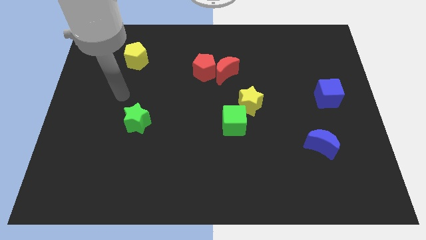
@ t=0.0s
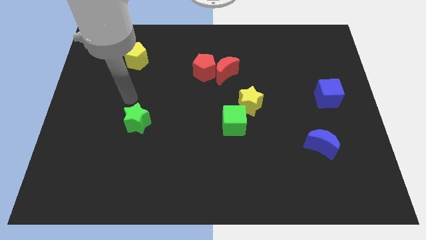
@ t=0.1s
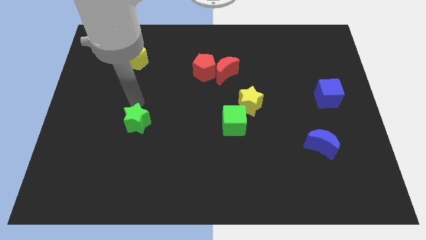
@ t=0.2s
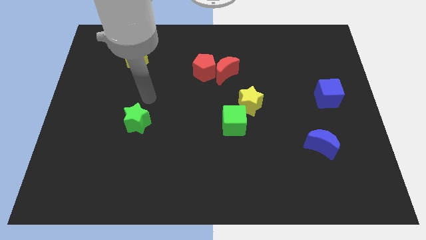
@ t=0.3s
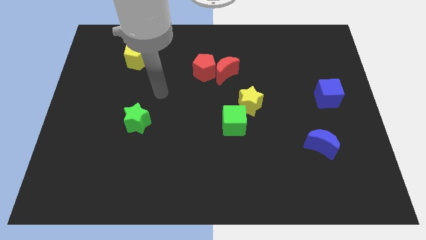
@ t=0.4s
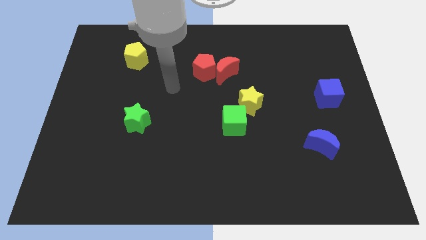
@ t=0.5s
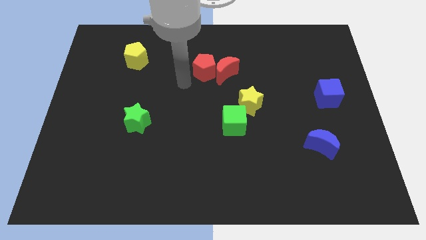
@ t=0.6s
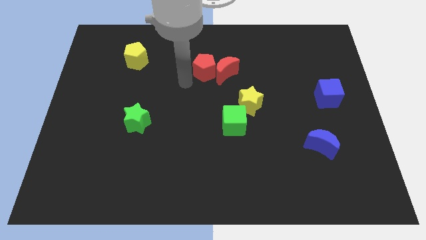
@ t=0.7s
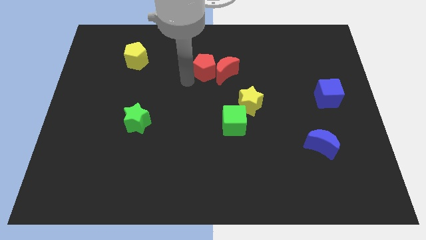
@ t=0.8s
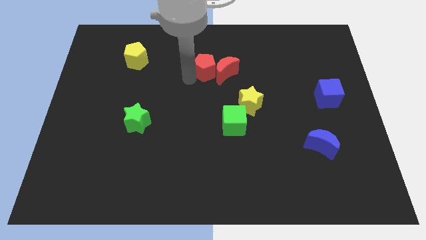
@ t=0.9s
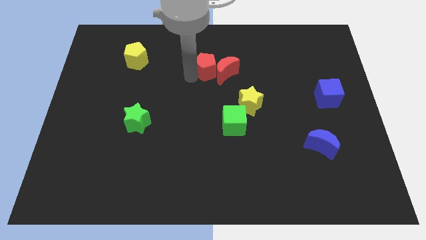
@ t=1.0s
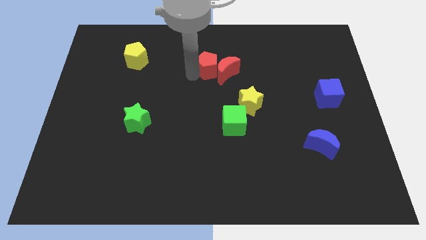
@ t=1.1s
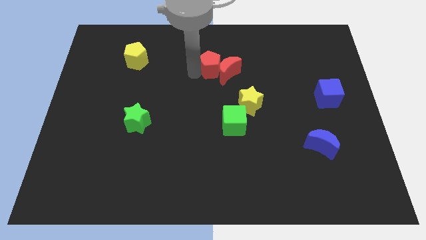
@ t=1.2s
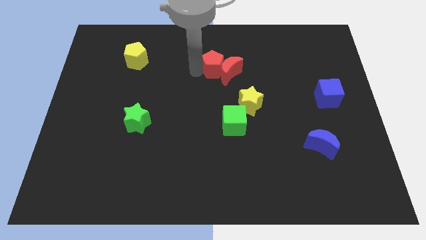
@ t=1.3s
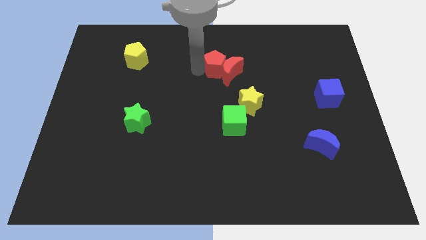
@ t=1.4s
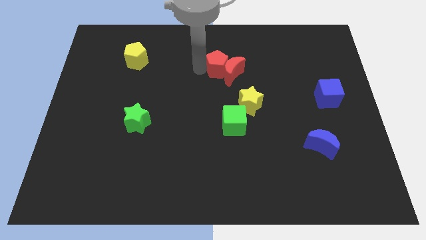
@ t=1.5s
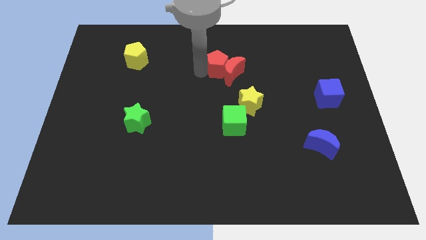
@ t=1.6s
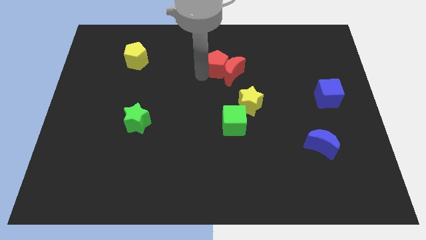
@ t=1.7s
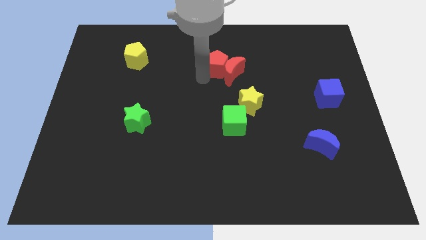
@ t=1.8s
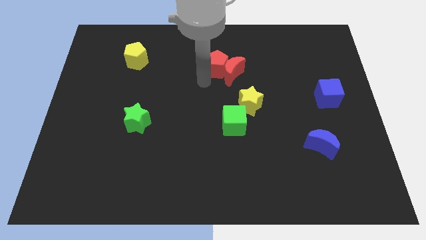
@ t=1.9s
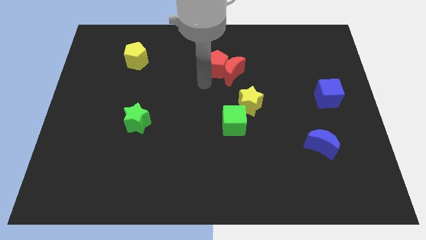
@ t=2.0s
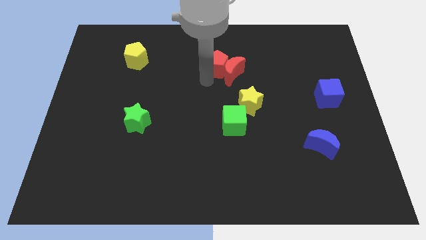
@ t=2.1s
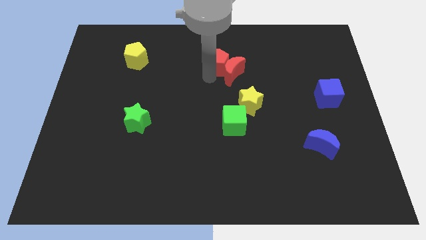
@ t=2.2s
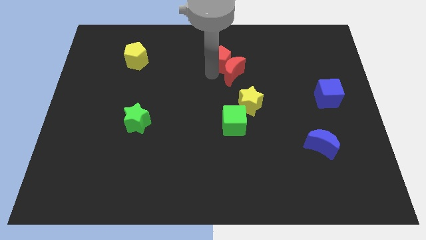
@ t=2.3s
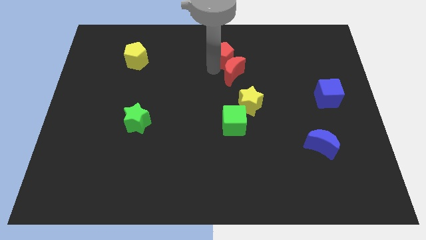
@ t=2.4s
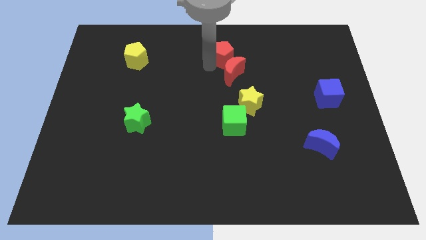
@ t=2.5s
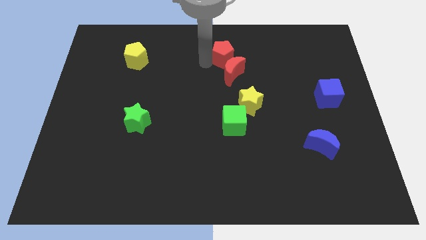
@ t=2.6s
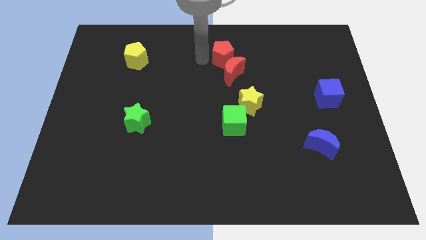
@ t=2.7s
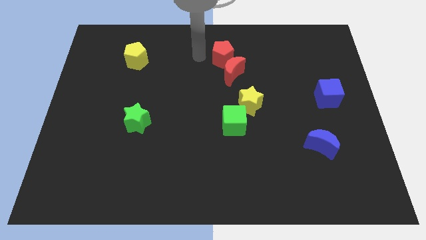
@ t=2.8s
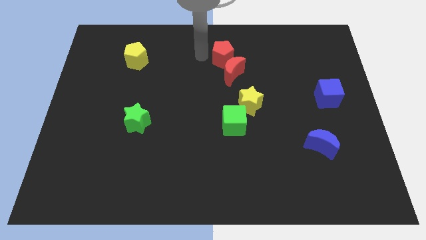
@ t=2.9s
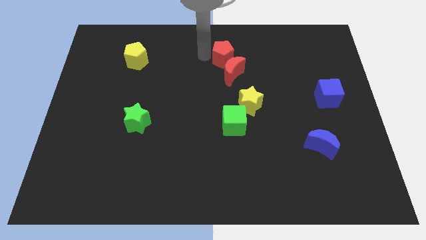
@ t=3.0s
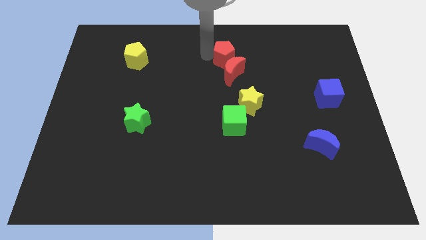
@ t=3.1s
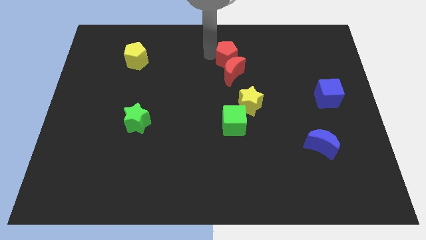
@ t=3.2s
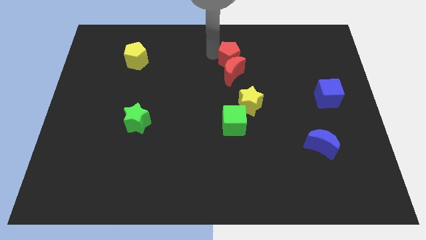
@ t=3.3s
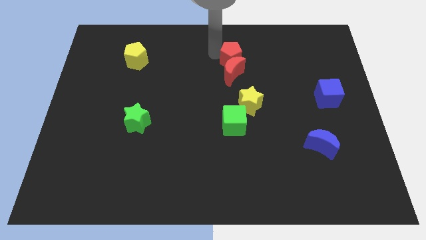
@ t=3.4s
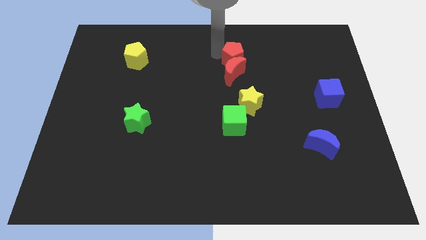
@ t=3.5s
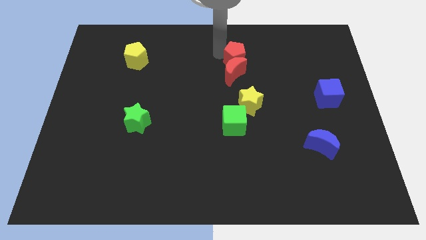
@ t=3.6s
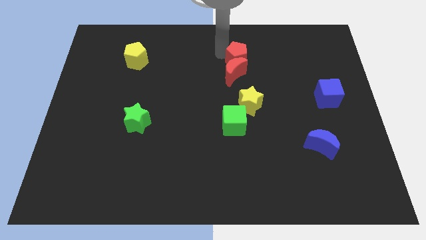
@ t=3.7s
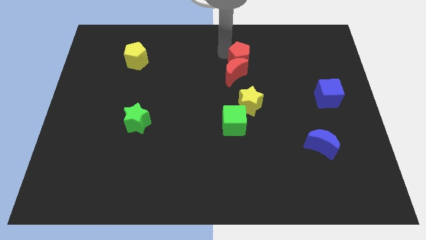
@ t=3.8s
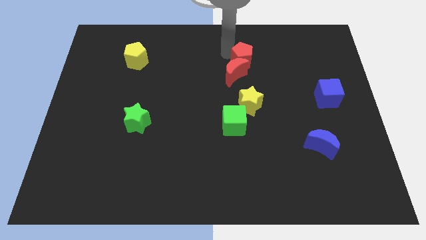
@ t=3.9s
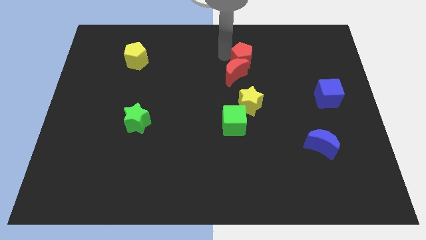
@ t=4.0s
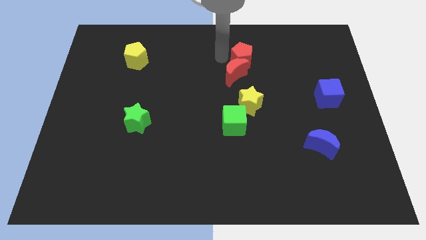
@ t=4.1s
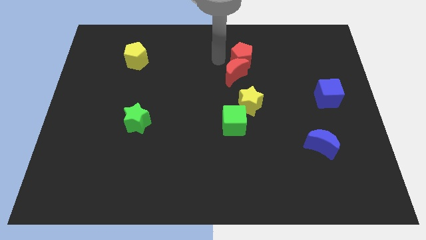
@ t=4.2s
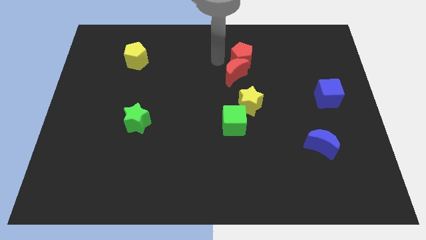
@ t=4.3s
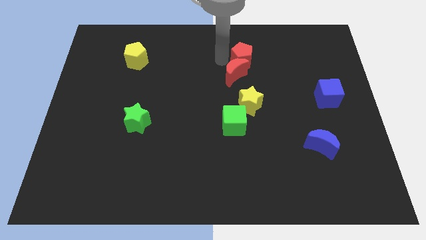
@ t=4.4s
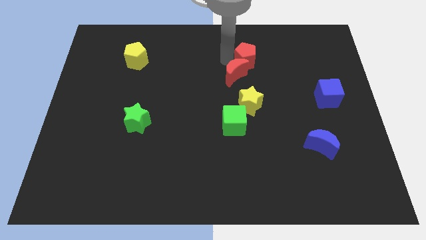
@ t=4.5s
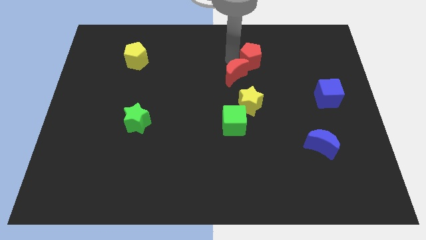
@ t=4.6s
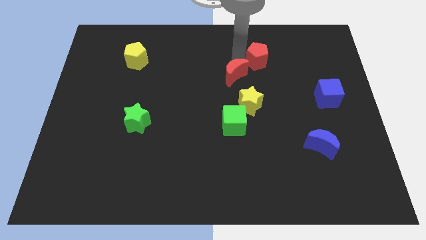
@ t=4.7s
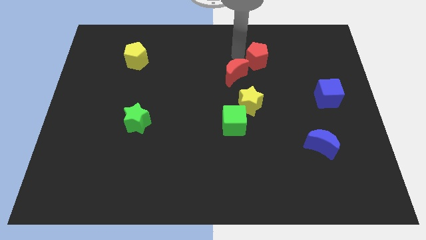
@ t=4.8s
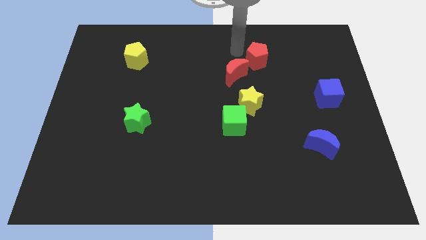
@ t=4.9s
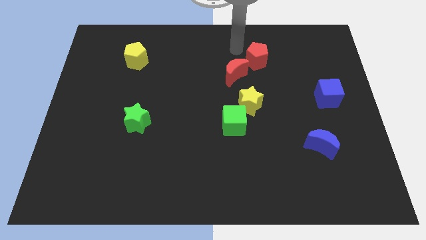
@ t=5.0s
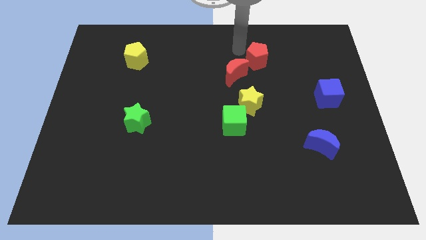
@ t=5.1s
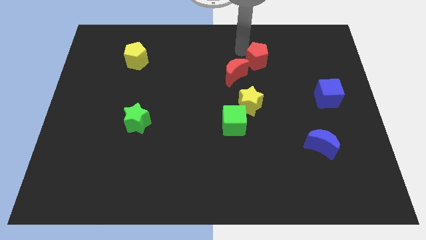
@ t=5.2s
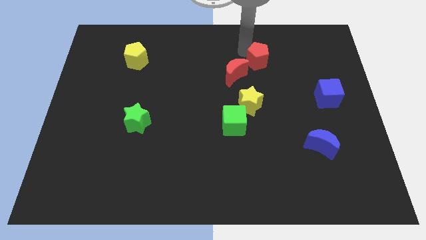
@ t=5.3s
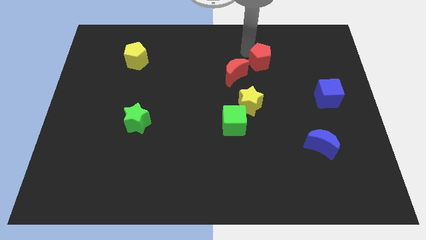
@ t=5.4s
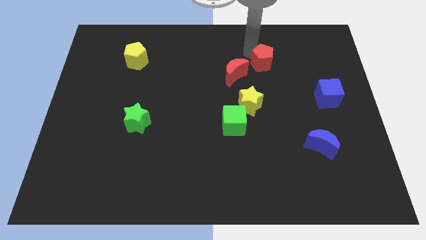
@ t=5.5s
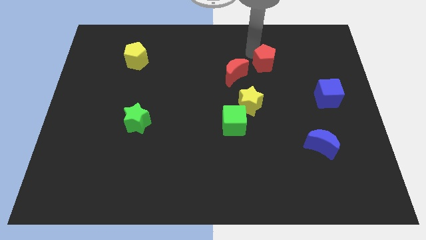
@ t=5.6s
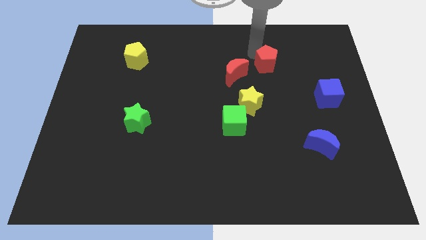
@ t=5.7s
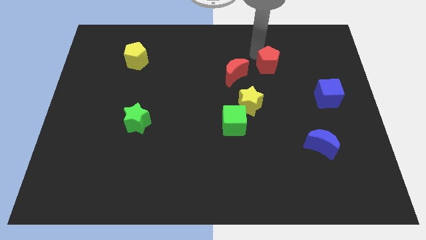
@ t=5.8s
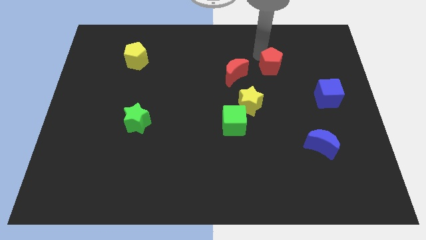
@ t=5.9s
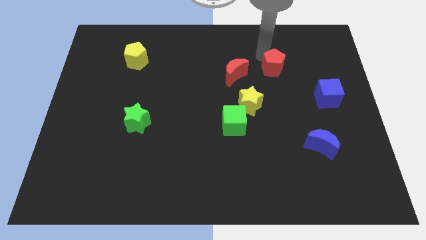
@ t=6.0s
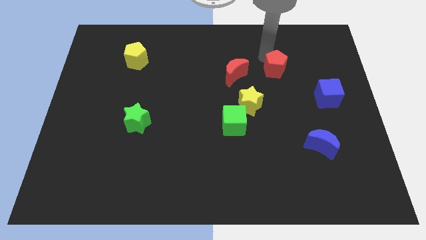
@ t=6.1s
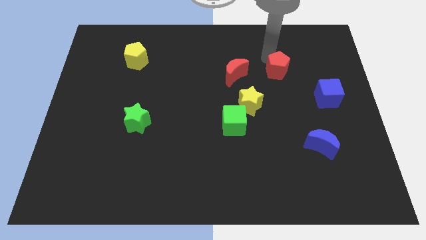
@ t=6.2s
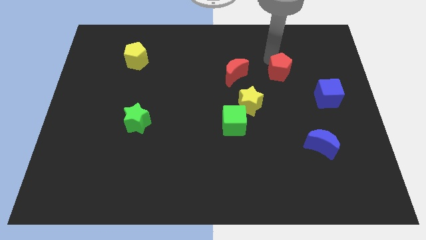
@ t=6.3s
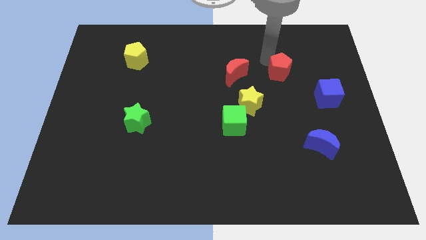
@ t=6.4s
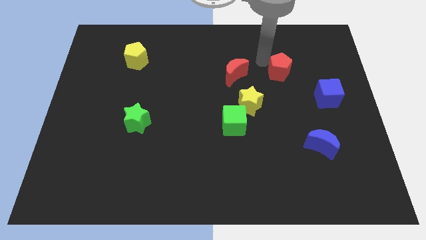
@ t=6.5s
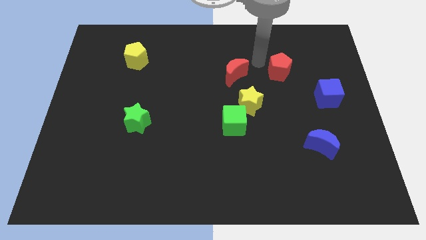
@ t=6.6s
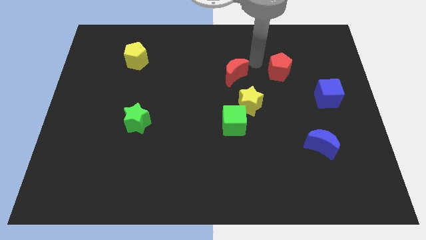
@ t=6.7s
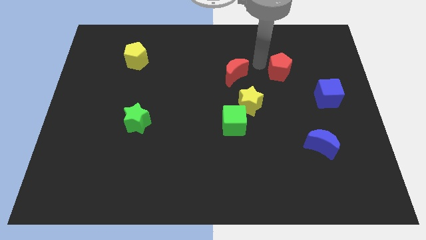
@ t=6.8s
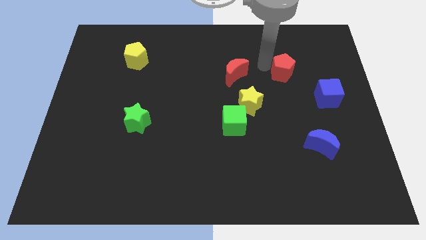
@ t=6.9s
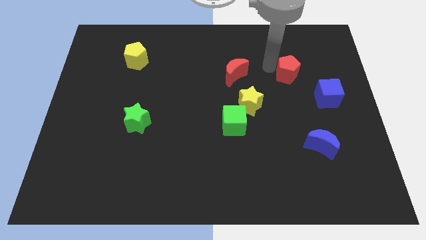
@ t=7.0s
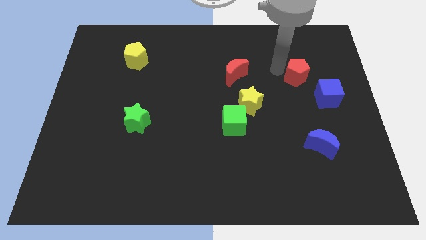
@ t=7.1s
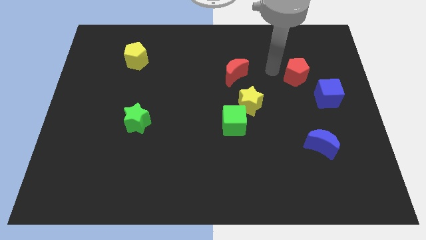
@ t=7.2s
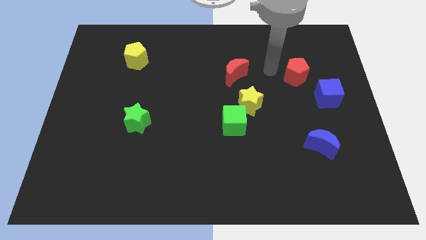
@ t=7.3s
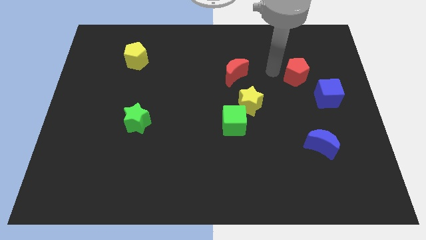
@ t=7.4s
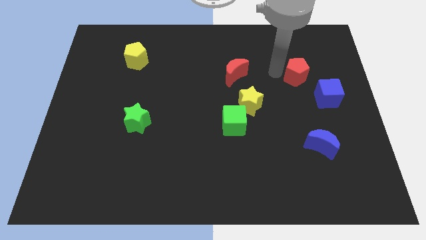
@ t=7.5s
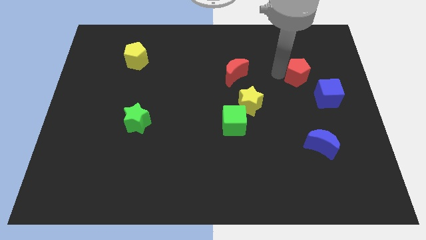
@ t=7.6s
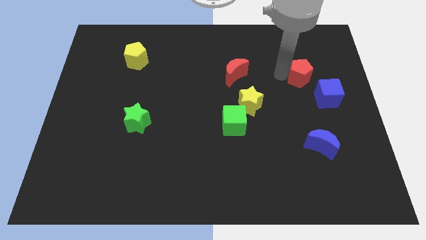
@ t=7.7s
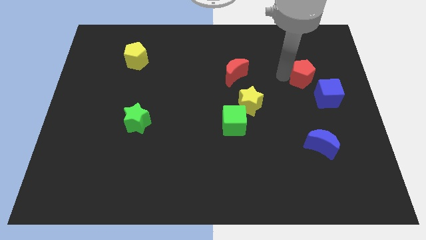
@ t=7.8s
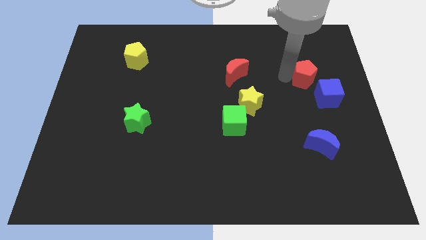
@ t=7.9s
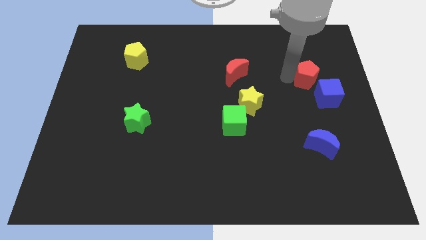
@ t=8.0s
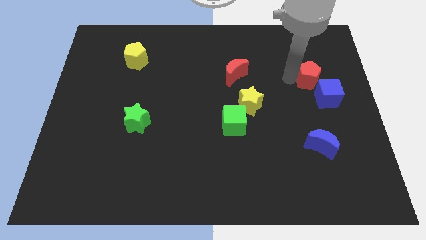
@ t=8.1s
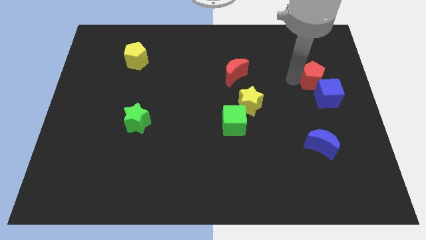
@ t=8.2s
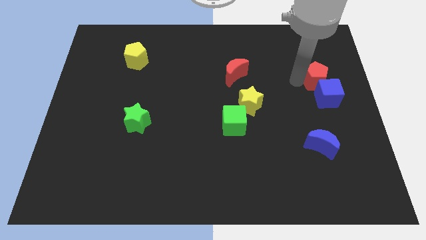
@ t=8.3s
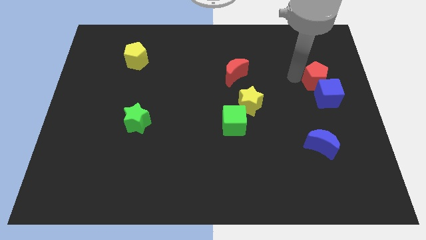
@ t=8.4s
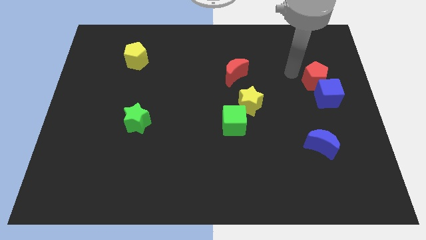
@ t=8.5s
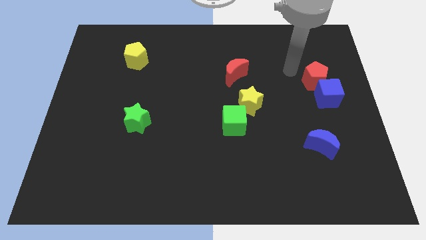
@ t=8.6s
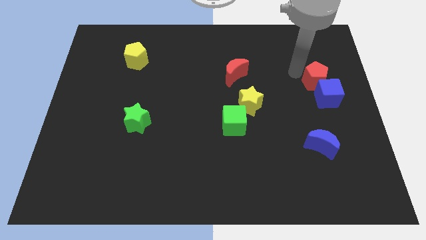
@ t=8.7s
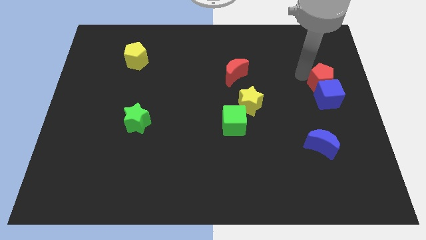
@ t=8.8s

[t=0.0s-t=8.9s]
slide the red pentagon to the right side
